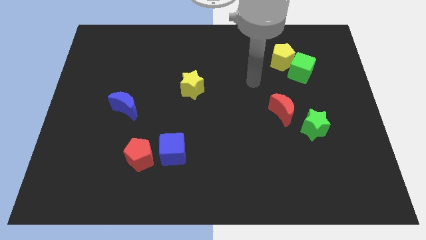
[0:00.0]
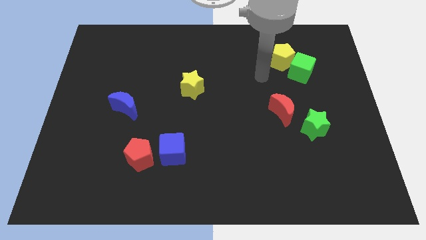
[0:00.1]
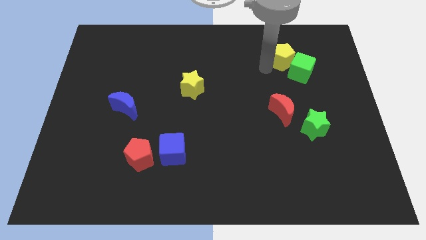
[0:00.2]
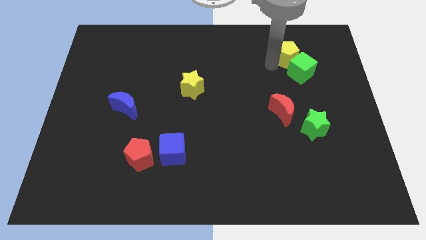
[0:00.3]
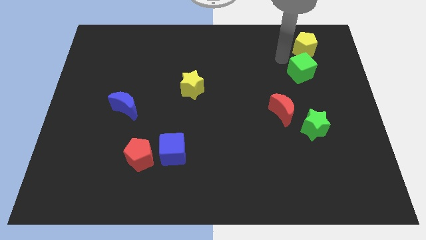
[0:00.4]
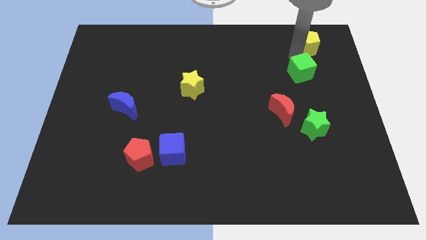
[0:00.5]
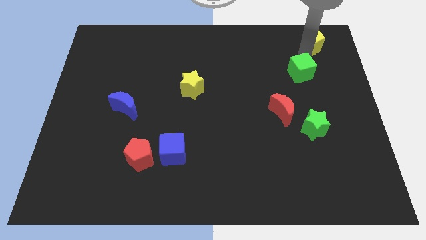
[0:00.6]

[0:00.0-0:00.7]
pull the green cube apart from the yellow pentagon

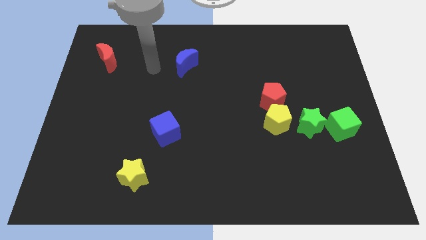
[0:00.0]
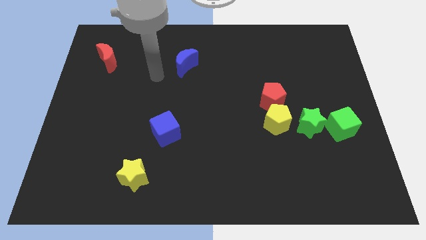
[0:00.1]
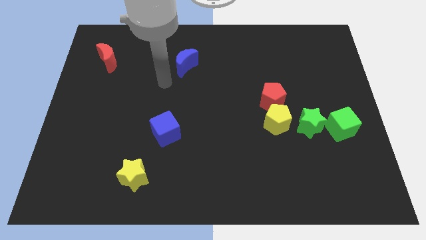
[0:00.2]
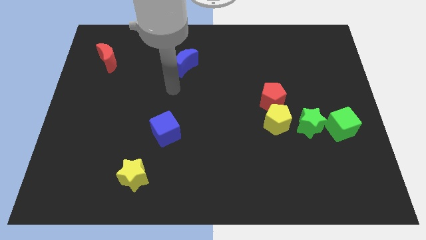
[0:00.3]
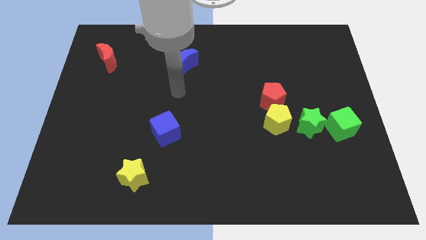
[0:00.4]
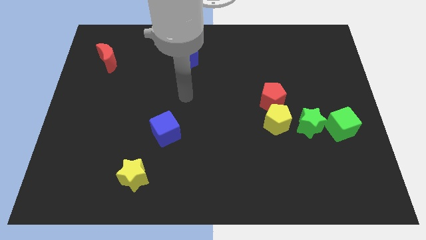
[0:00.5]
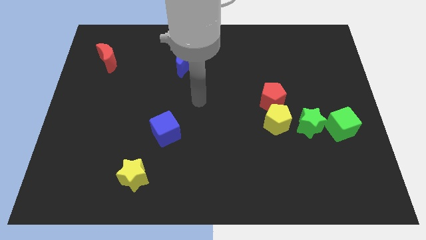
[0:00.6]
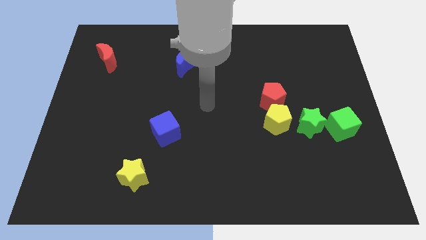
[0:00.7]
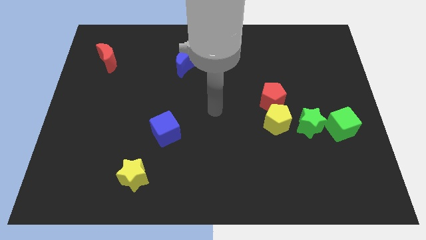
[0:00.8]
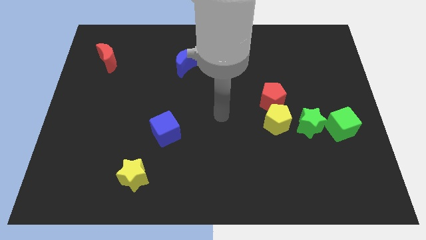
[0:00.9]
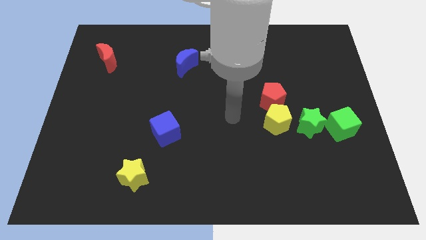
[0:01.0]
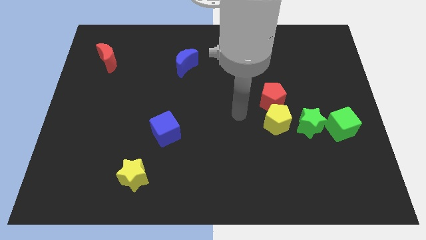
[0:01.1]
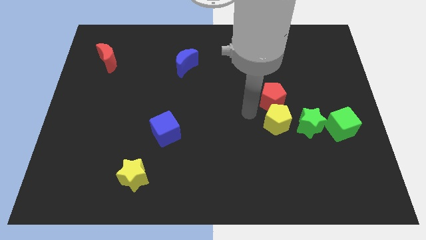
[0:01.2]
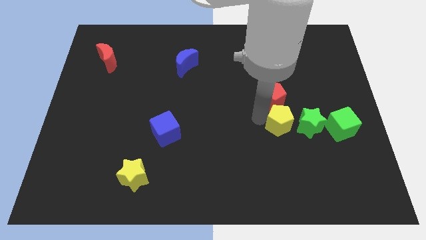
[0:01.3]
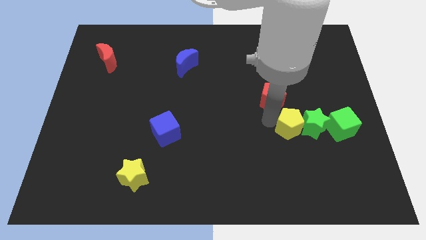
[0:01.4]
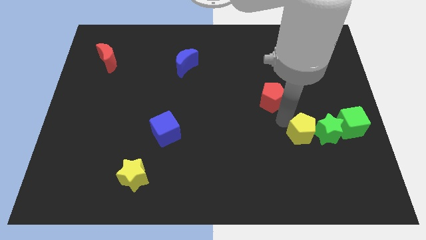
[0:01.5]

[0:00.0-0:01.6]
separate the red pentagon from the yellow pentagon

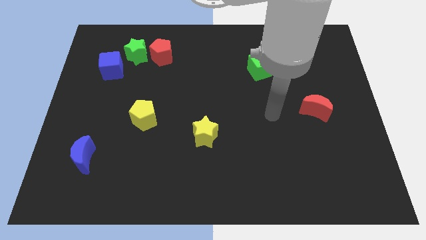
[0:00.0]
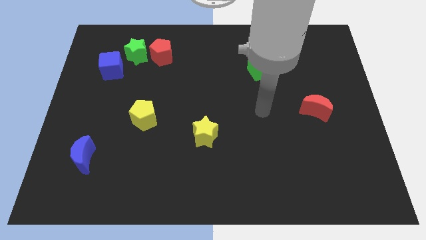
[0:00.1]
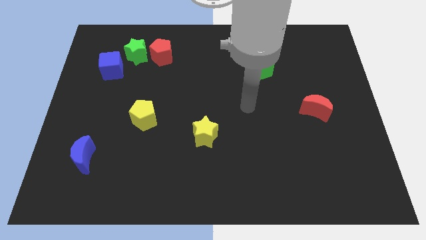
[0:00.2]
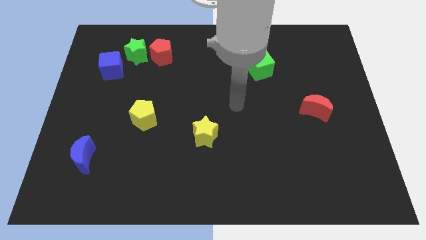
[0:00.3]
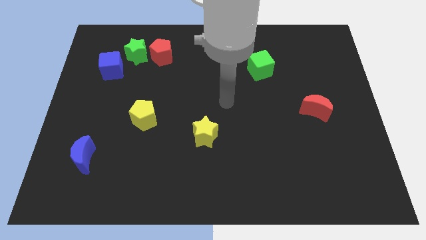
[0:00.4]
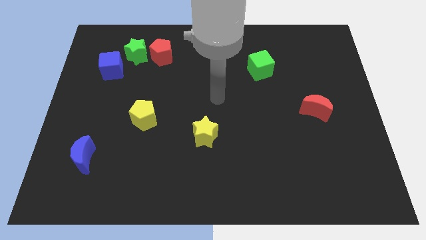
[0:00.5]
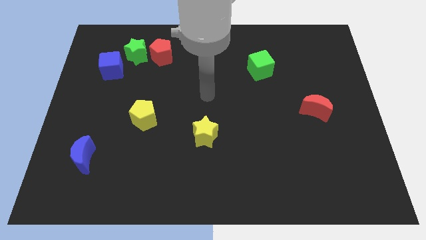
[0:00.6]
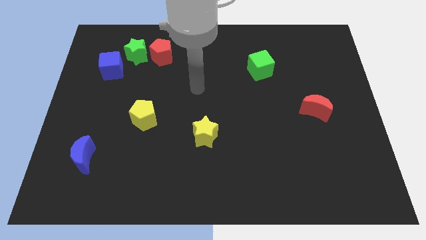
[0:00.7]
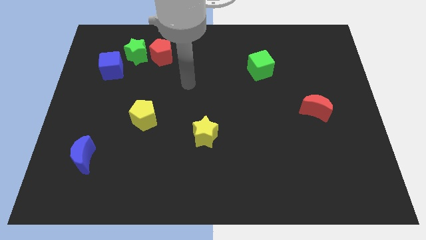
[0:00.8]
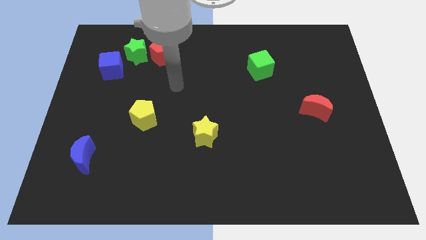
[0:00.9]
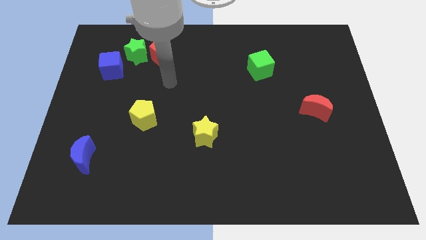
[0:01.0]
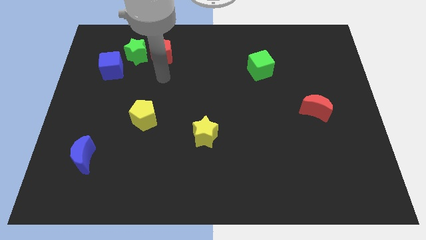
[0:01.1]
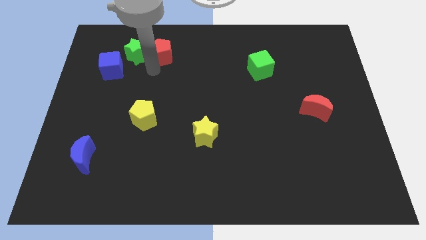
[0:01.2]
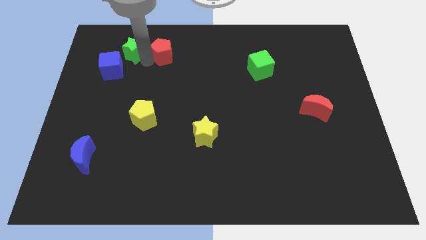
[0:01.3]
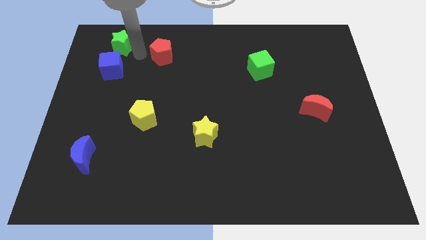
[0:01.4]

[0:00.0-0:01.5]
separate the red pentagon from the green star

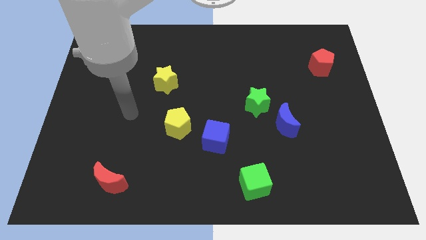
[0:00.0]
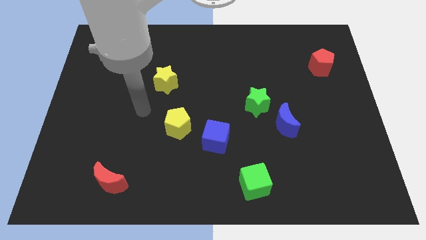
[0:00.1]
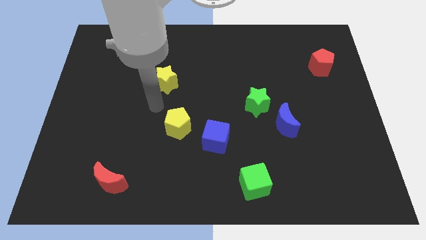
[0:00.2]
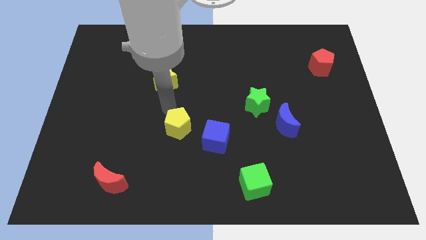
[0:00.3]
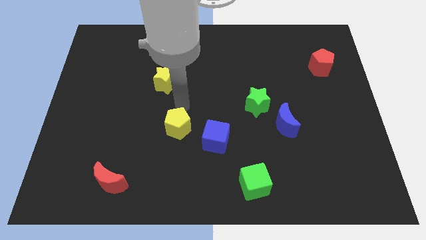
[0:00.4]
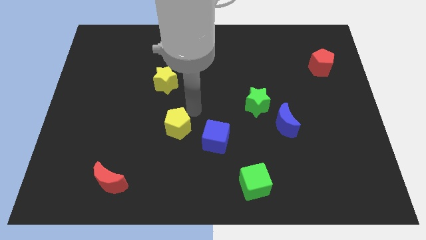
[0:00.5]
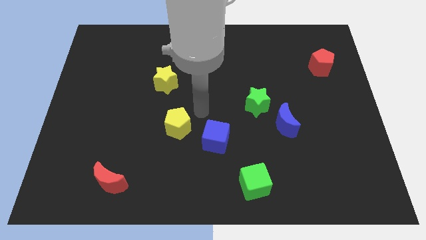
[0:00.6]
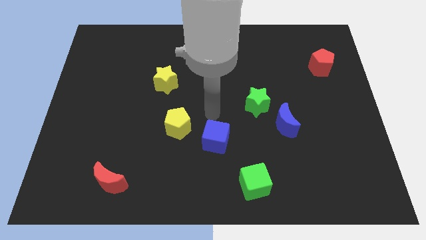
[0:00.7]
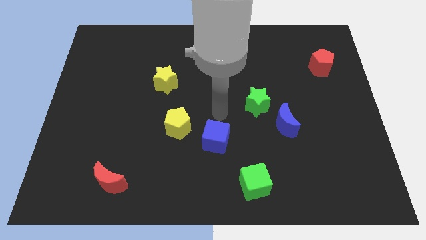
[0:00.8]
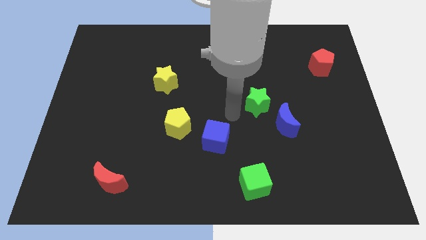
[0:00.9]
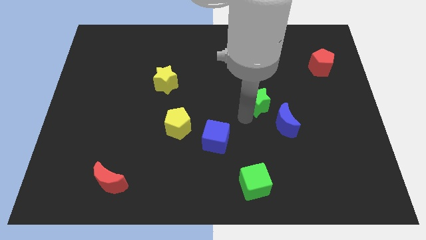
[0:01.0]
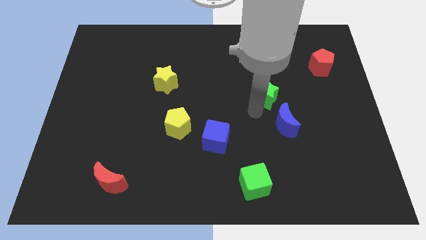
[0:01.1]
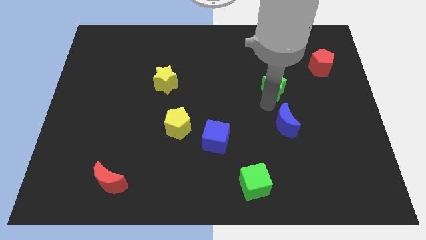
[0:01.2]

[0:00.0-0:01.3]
move the blue moon away from the green star

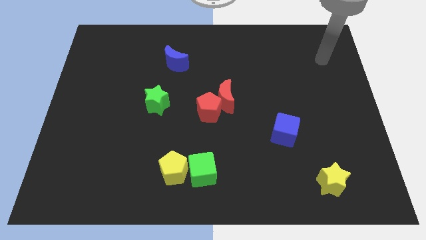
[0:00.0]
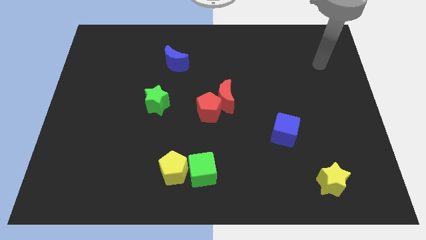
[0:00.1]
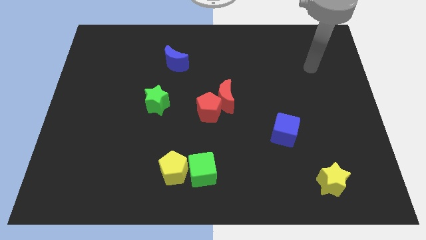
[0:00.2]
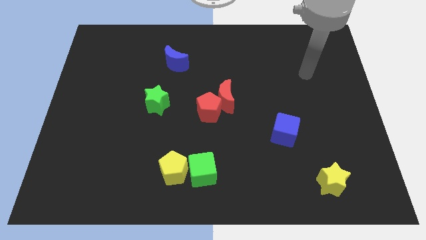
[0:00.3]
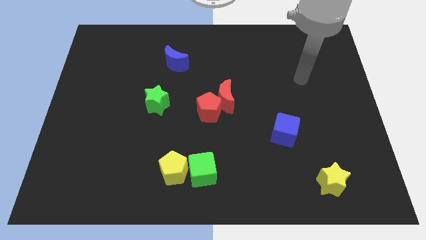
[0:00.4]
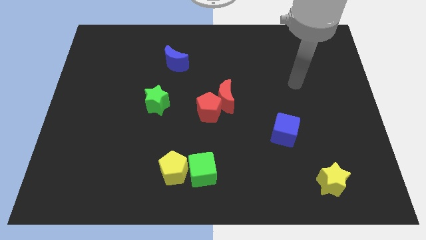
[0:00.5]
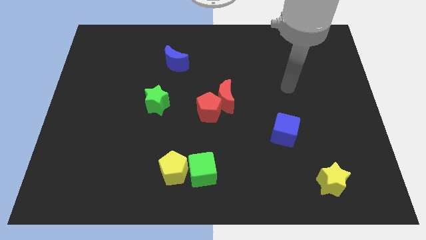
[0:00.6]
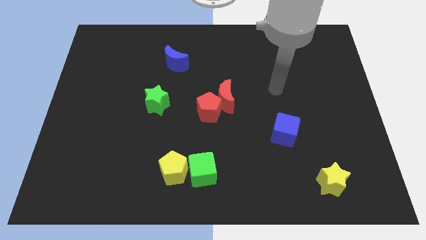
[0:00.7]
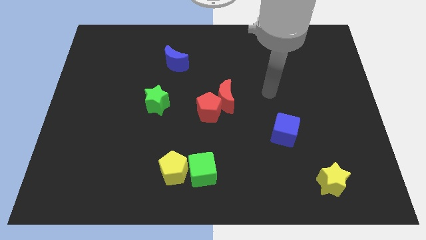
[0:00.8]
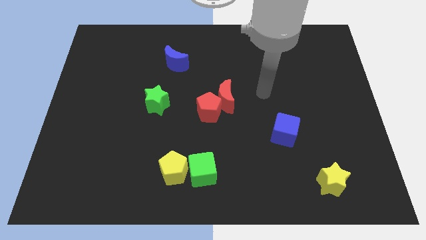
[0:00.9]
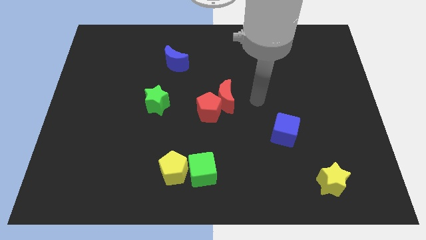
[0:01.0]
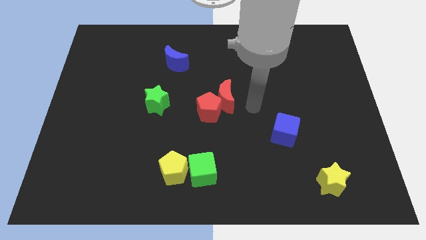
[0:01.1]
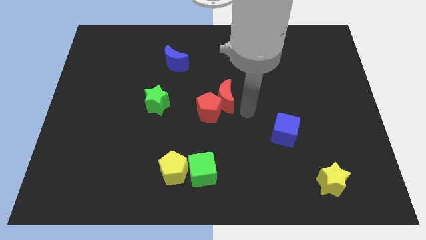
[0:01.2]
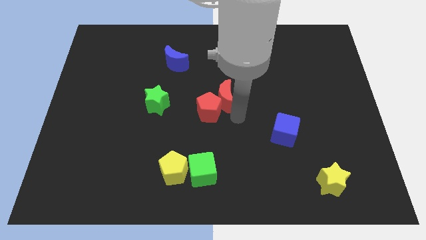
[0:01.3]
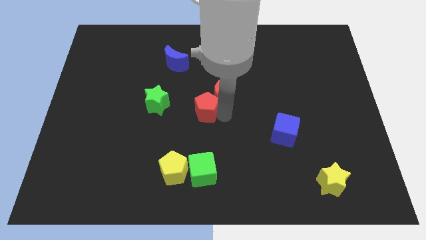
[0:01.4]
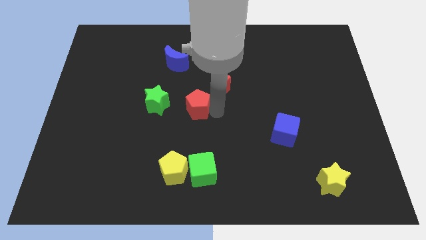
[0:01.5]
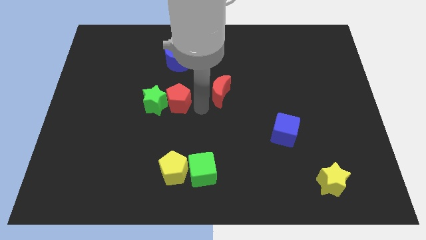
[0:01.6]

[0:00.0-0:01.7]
pull the red moon apart from the red pentagon

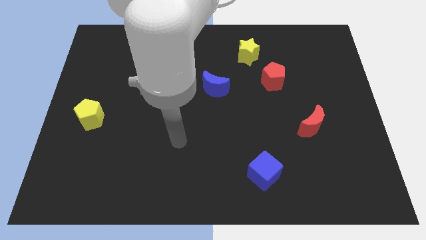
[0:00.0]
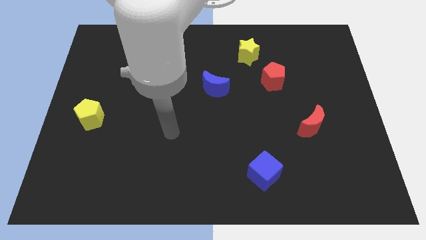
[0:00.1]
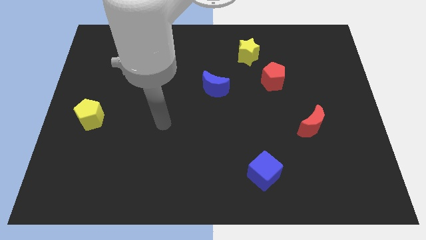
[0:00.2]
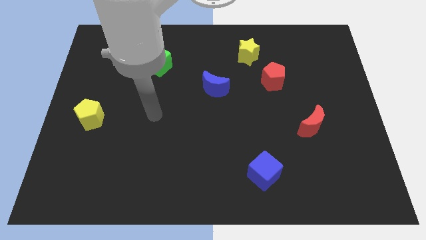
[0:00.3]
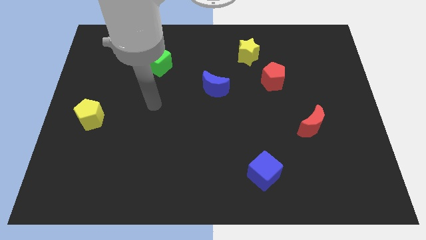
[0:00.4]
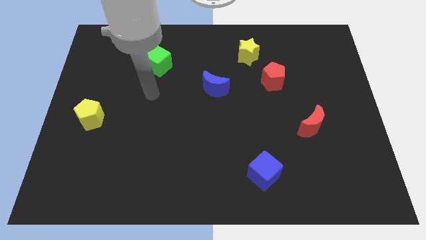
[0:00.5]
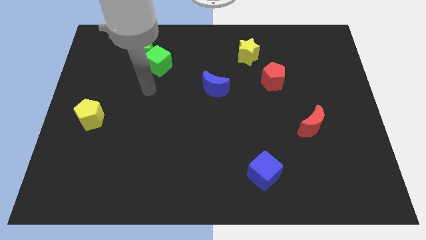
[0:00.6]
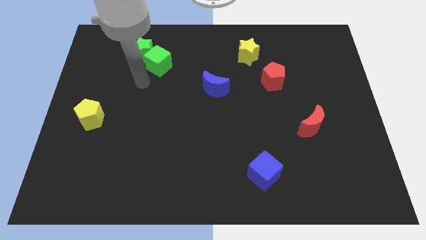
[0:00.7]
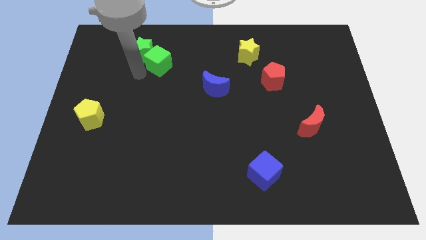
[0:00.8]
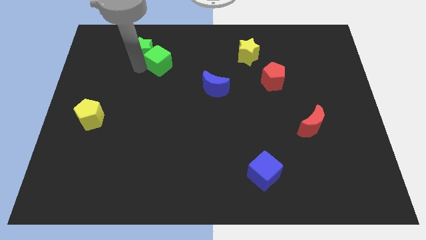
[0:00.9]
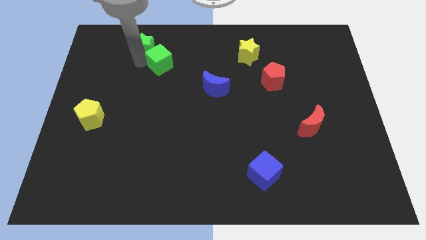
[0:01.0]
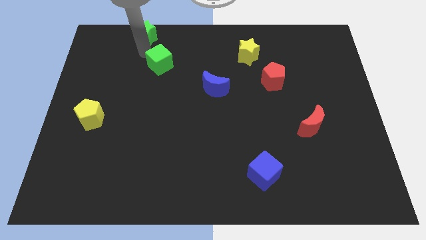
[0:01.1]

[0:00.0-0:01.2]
move the green cube away from the green star

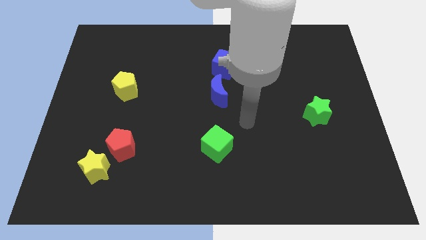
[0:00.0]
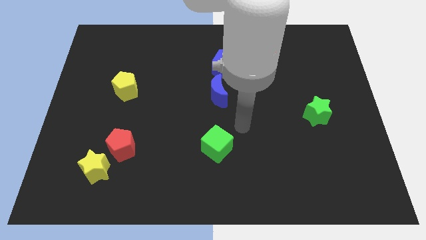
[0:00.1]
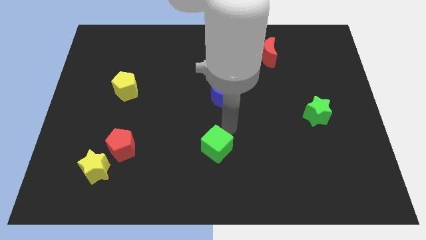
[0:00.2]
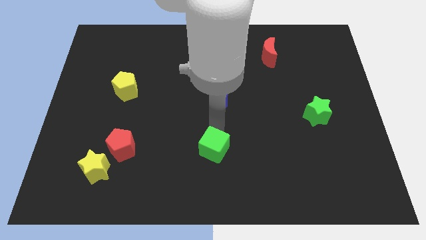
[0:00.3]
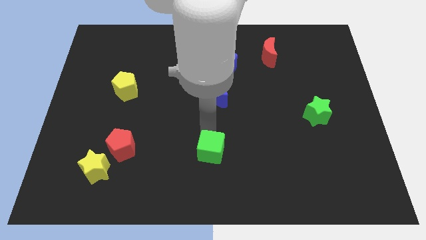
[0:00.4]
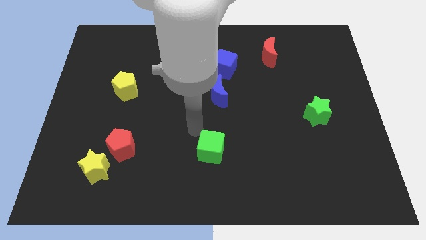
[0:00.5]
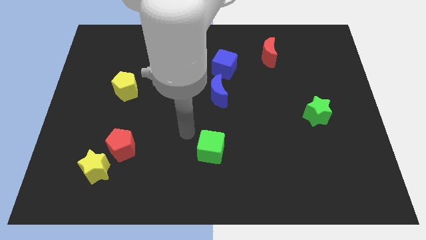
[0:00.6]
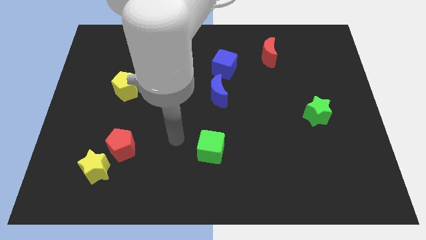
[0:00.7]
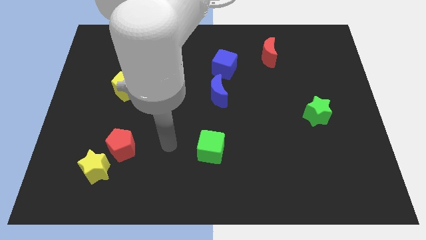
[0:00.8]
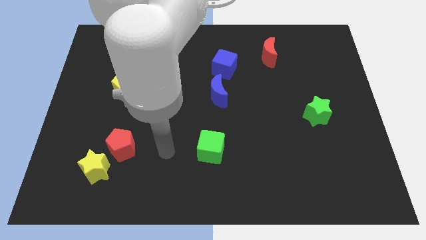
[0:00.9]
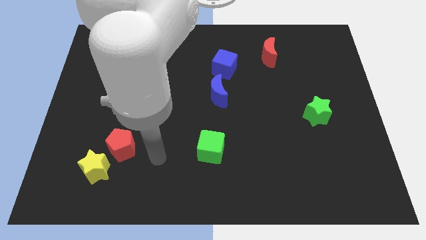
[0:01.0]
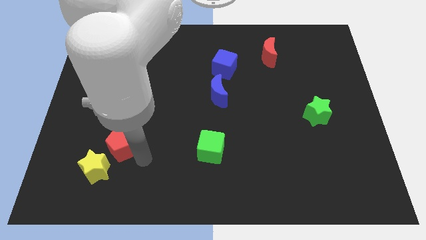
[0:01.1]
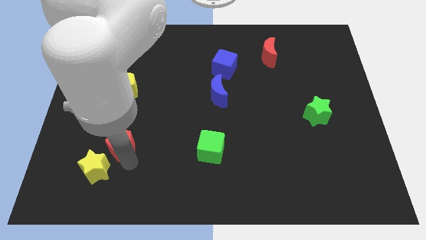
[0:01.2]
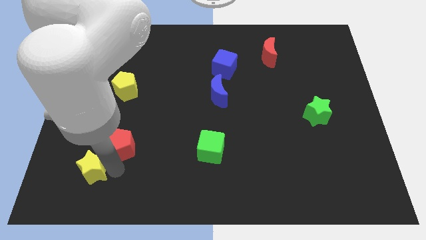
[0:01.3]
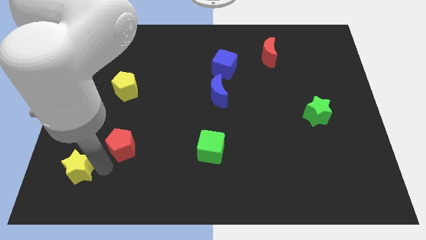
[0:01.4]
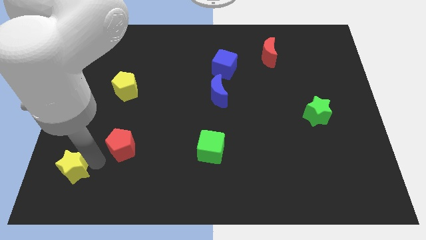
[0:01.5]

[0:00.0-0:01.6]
pull the red pentagon apart from the yellow star
